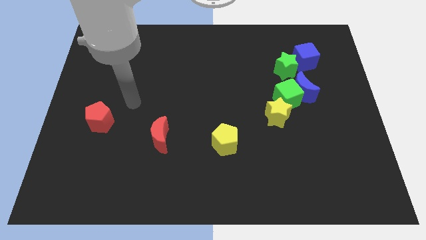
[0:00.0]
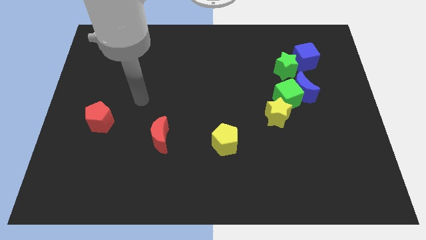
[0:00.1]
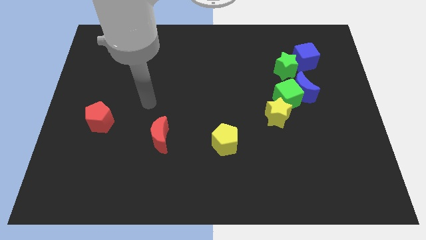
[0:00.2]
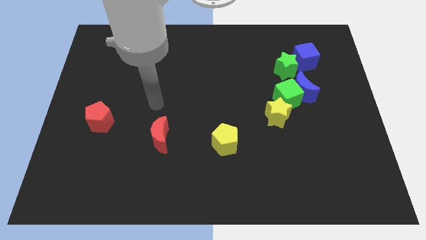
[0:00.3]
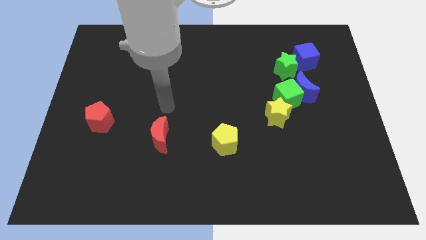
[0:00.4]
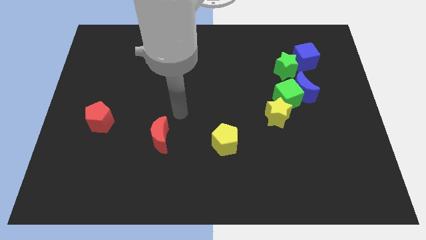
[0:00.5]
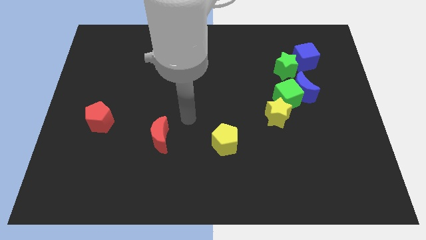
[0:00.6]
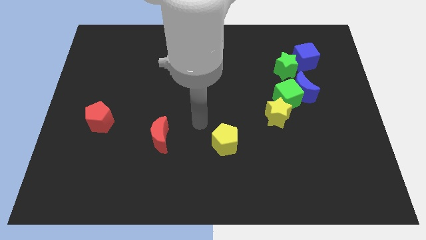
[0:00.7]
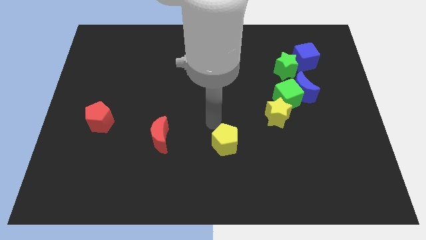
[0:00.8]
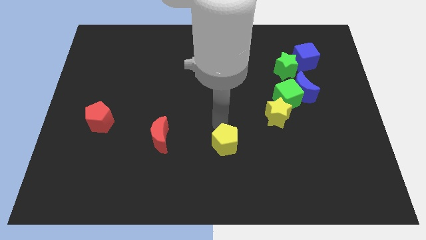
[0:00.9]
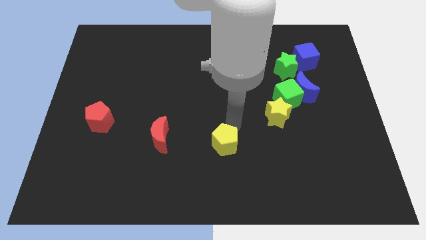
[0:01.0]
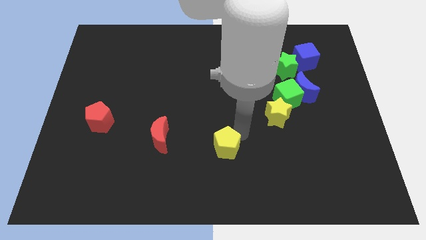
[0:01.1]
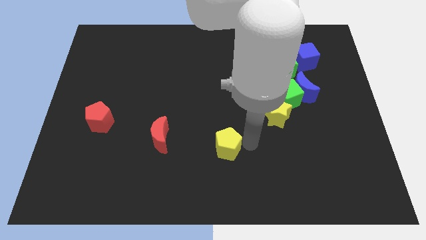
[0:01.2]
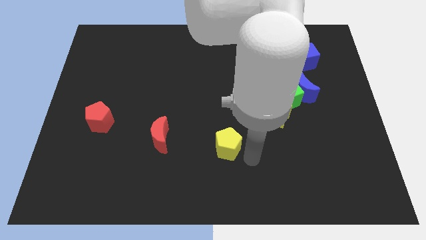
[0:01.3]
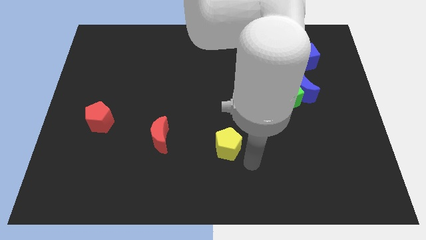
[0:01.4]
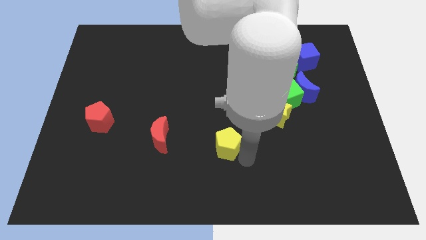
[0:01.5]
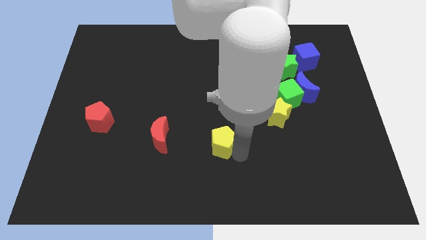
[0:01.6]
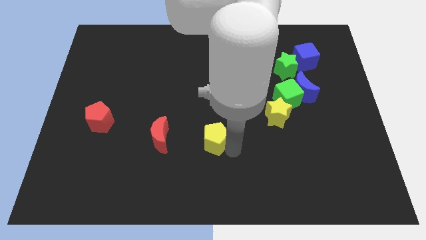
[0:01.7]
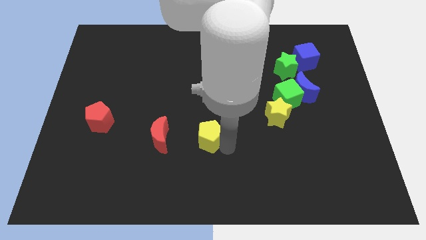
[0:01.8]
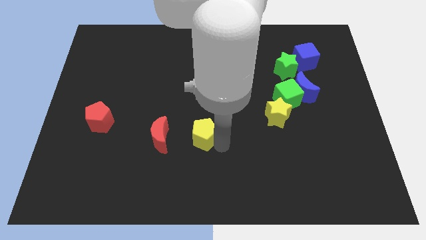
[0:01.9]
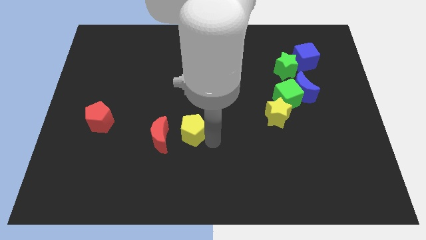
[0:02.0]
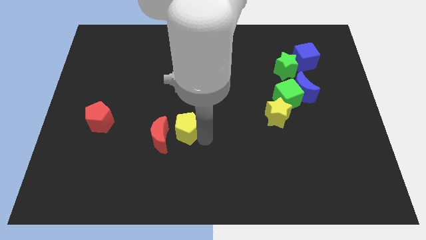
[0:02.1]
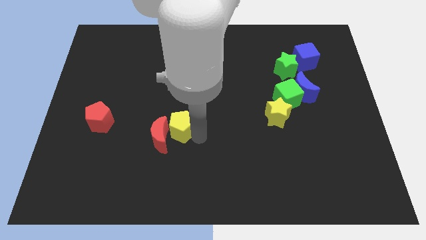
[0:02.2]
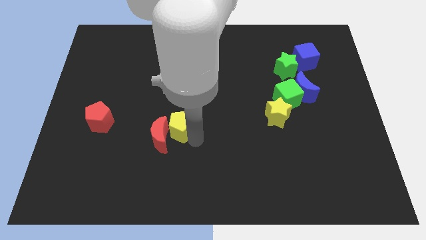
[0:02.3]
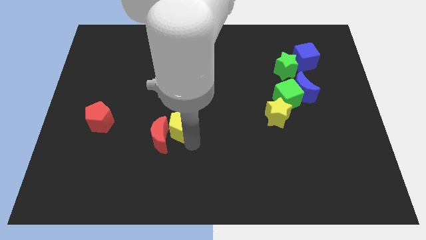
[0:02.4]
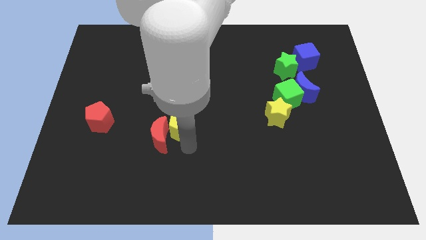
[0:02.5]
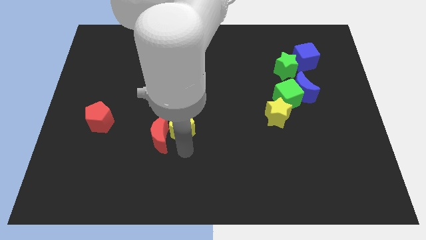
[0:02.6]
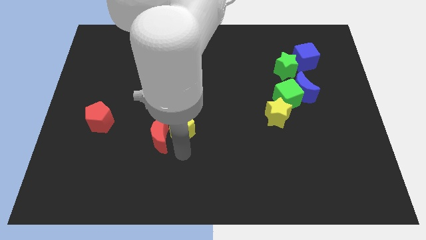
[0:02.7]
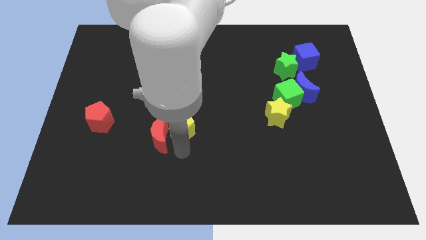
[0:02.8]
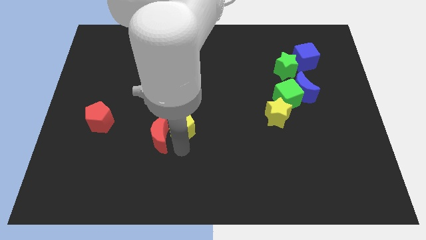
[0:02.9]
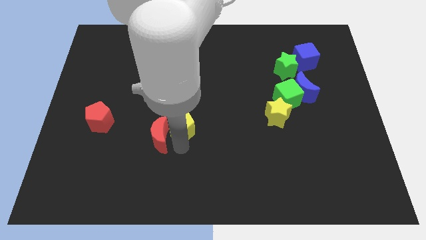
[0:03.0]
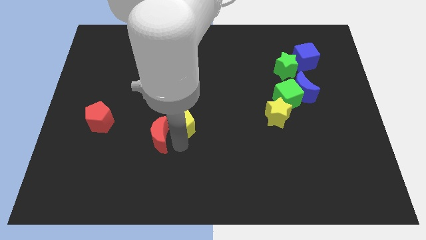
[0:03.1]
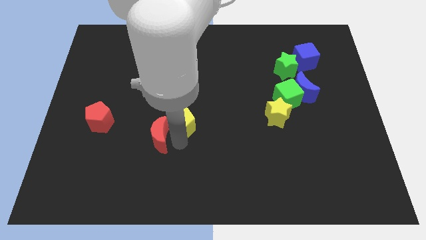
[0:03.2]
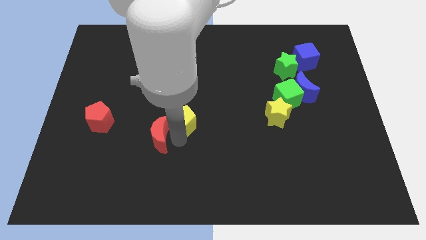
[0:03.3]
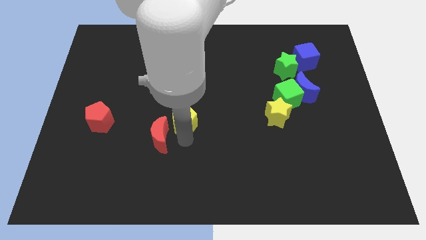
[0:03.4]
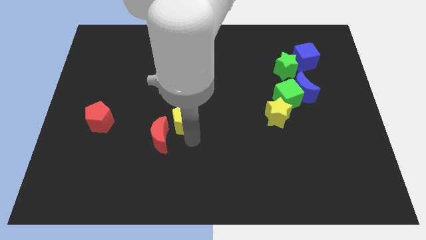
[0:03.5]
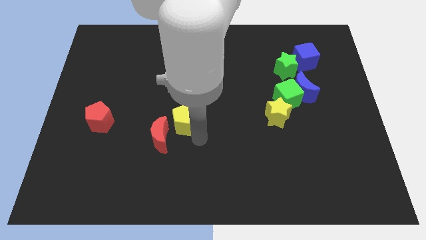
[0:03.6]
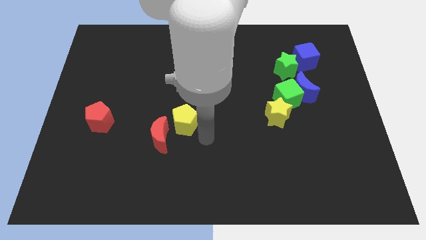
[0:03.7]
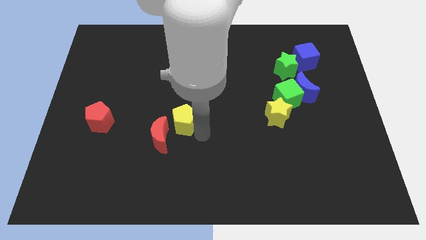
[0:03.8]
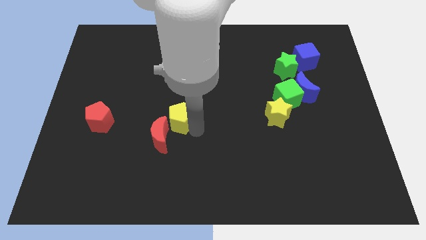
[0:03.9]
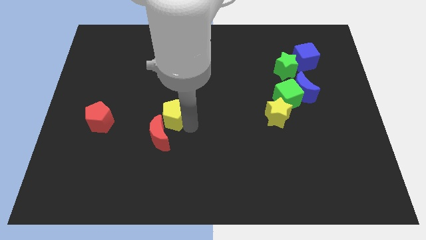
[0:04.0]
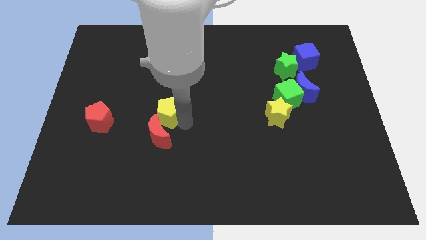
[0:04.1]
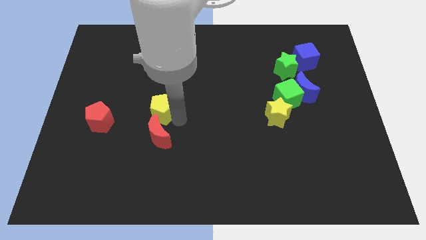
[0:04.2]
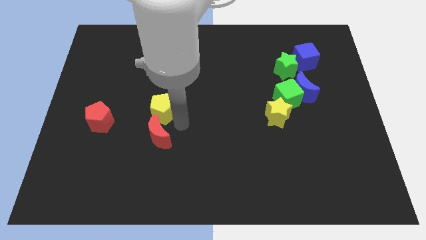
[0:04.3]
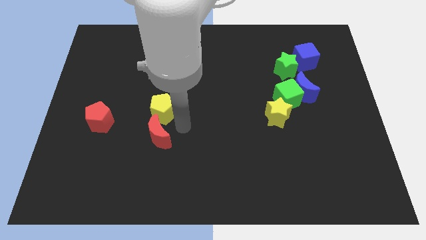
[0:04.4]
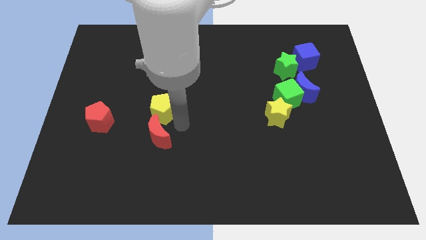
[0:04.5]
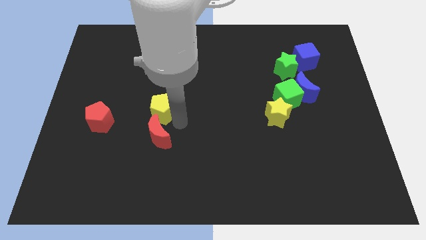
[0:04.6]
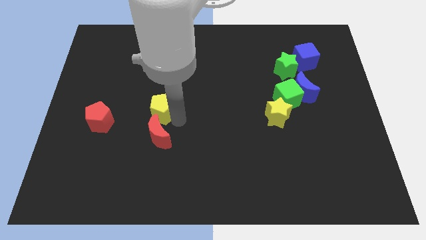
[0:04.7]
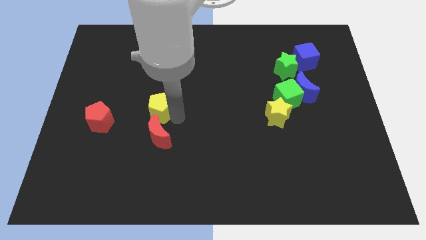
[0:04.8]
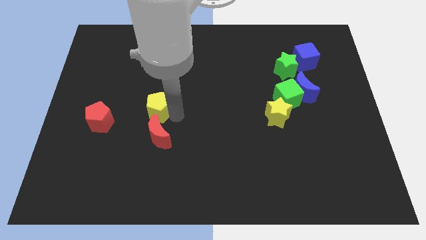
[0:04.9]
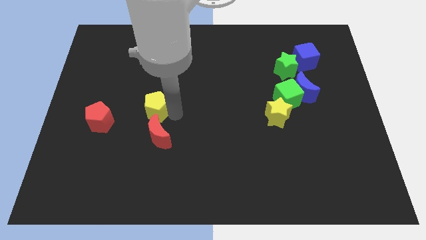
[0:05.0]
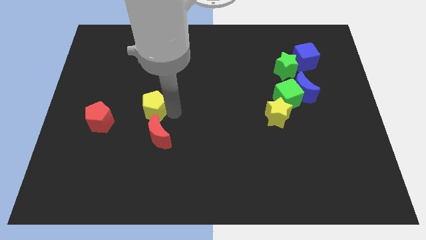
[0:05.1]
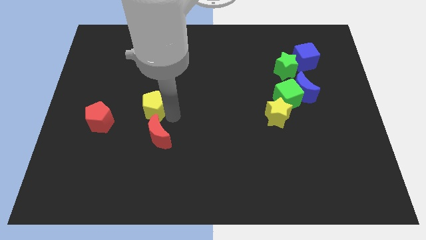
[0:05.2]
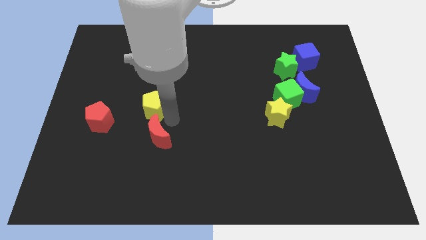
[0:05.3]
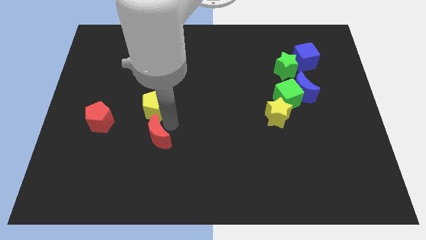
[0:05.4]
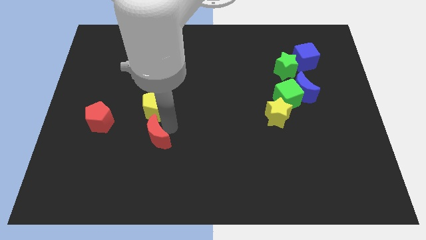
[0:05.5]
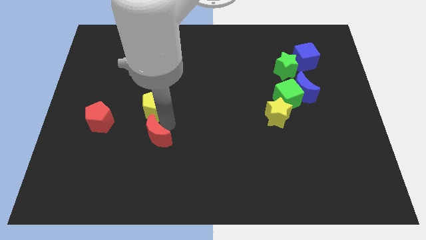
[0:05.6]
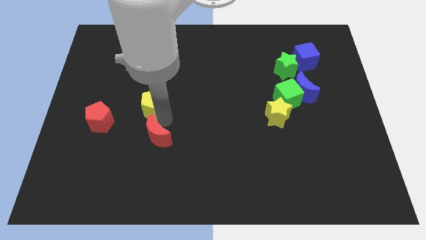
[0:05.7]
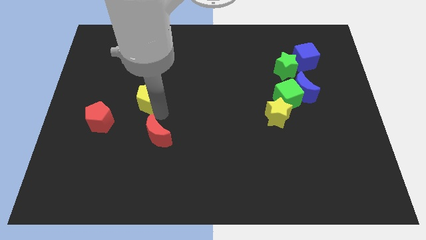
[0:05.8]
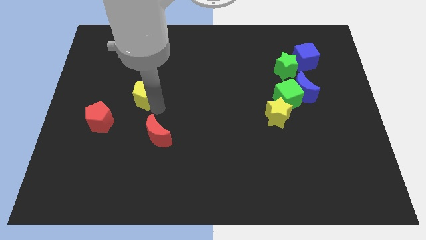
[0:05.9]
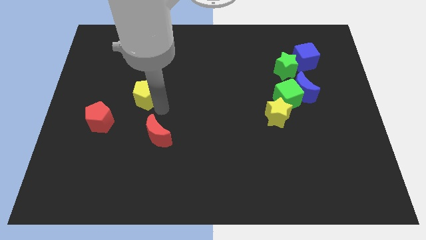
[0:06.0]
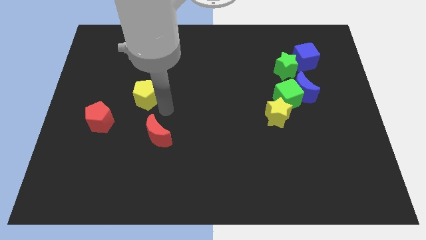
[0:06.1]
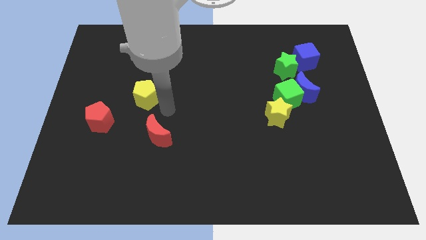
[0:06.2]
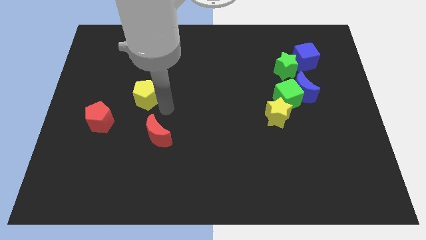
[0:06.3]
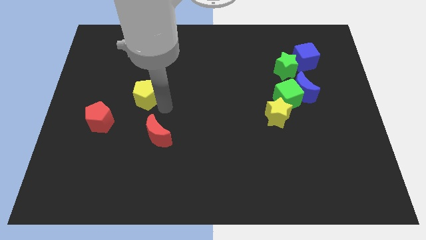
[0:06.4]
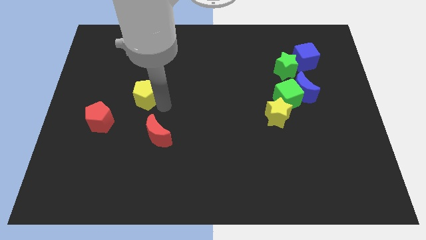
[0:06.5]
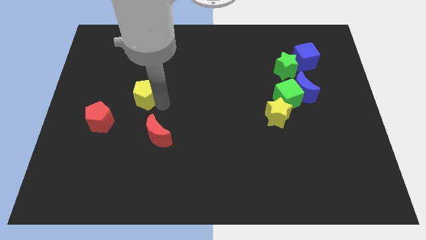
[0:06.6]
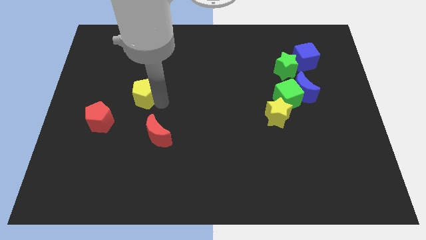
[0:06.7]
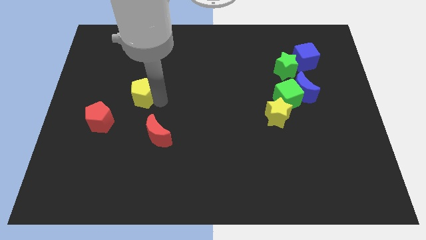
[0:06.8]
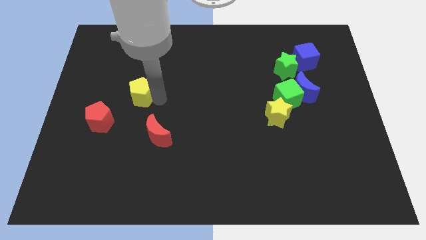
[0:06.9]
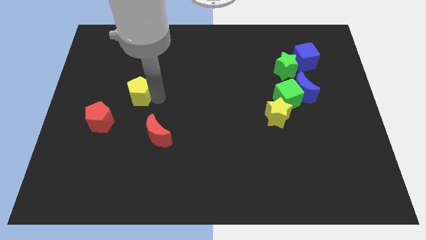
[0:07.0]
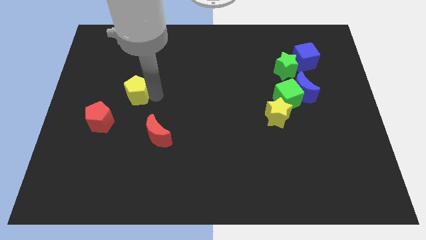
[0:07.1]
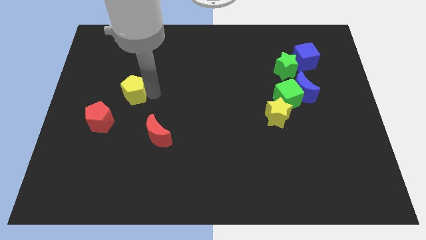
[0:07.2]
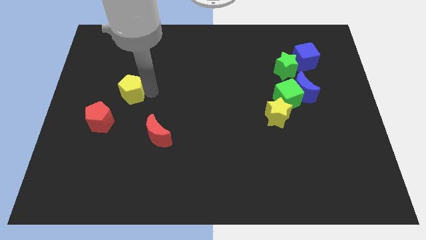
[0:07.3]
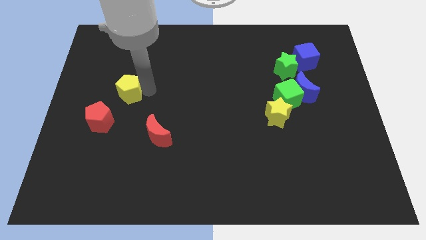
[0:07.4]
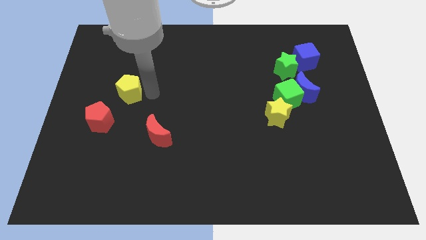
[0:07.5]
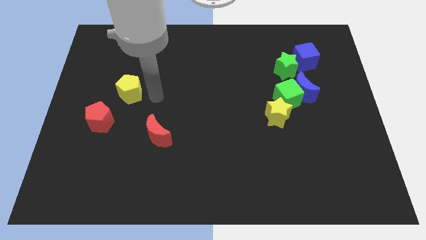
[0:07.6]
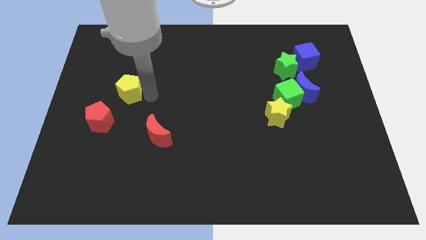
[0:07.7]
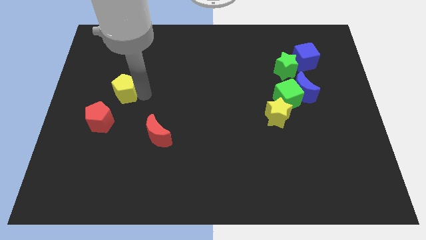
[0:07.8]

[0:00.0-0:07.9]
move the yellow pentagon above the red pentagon
